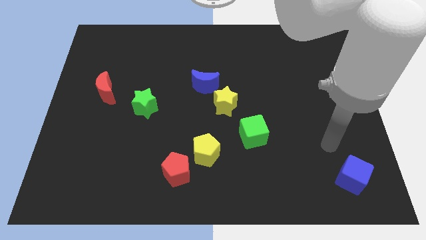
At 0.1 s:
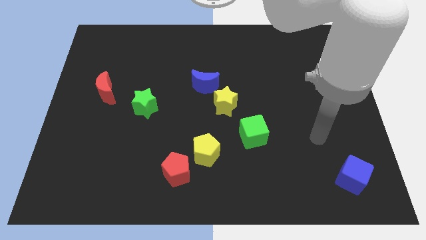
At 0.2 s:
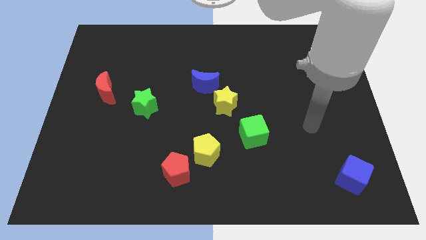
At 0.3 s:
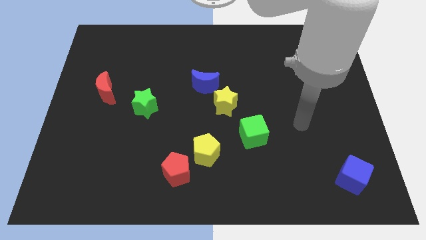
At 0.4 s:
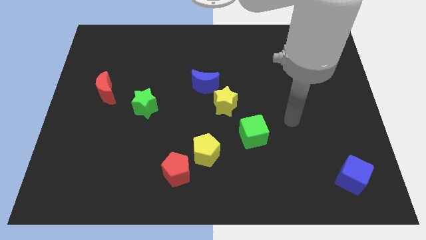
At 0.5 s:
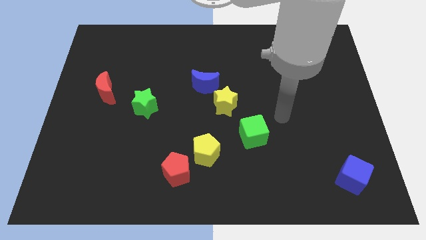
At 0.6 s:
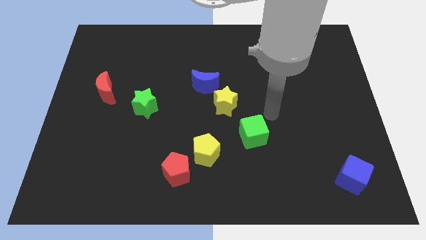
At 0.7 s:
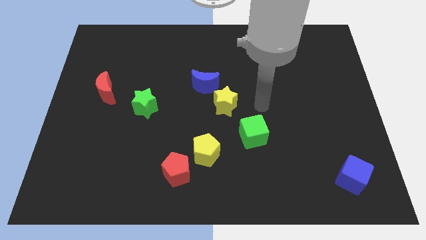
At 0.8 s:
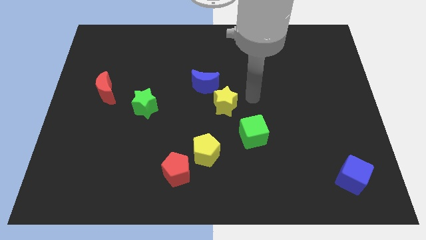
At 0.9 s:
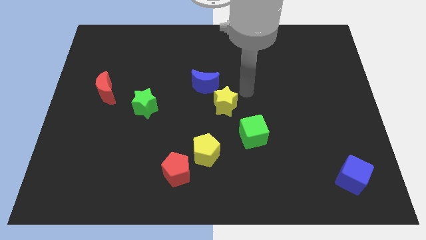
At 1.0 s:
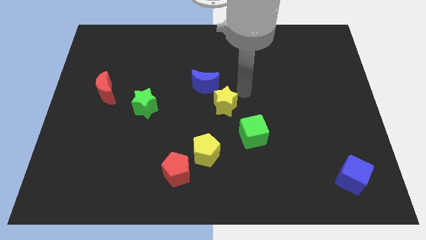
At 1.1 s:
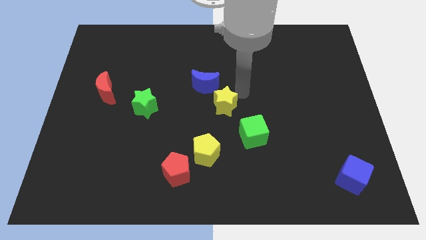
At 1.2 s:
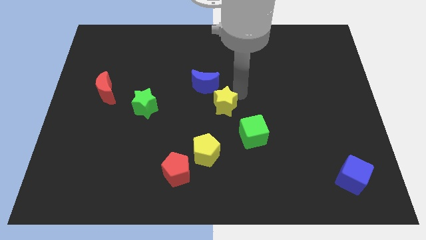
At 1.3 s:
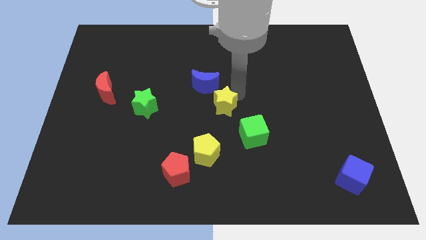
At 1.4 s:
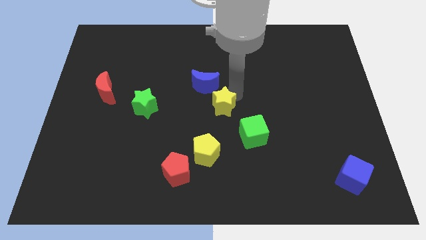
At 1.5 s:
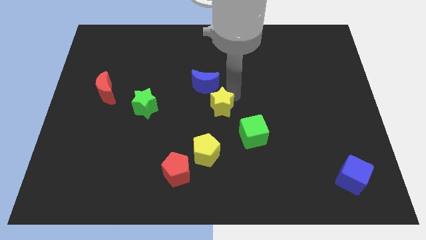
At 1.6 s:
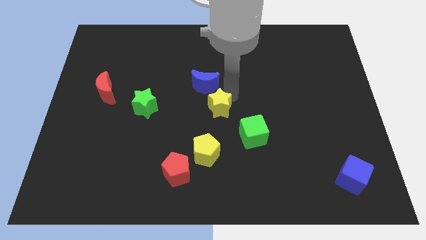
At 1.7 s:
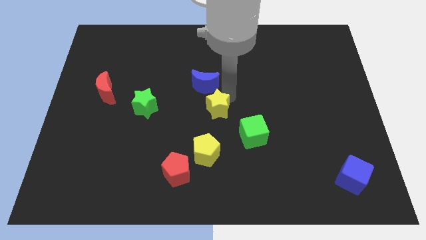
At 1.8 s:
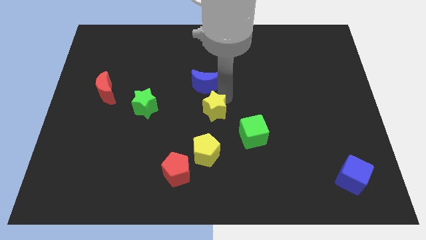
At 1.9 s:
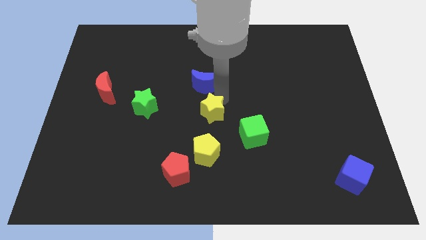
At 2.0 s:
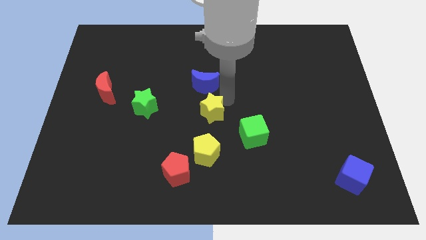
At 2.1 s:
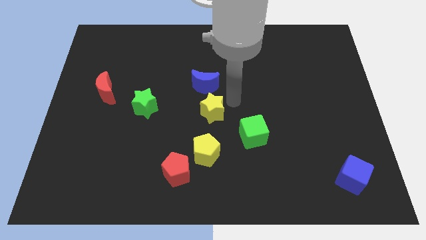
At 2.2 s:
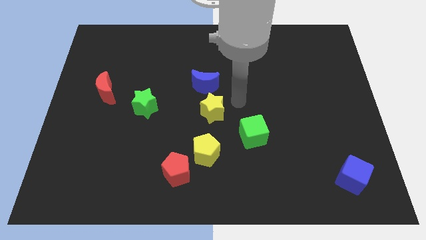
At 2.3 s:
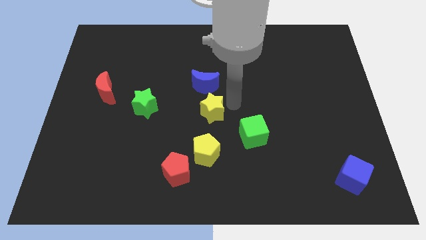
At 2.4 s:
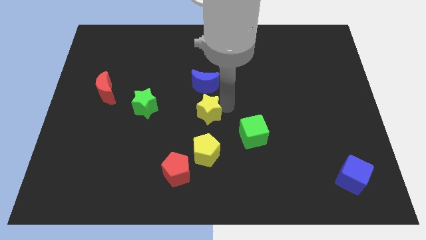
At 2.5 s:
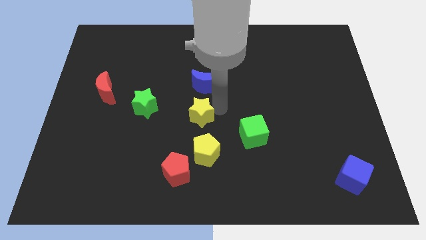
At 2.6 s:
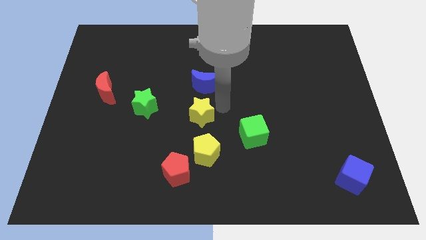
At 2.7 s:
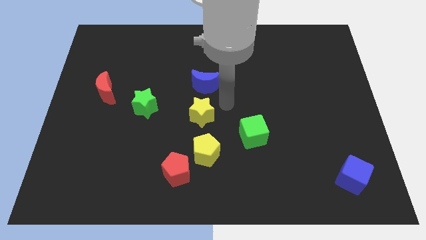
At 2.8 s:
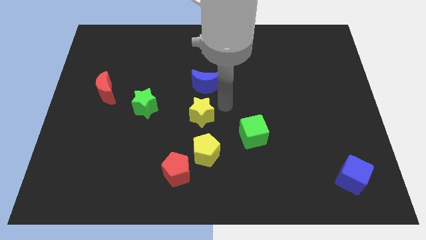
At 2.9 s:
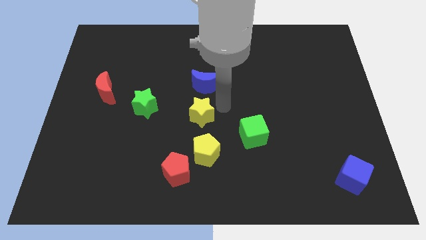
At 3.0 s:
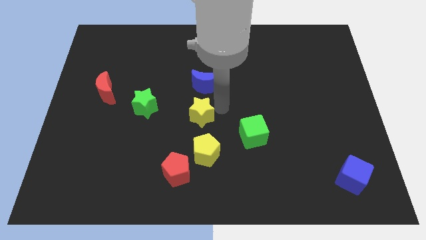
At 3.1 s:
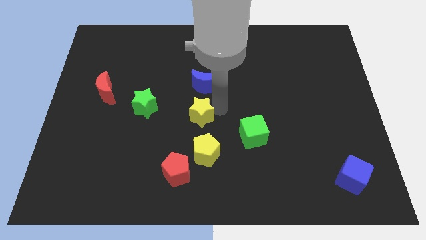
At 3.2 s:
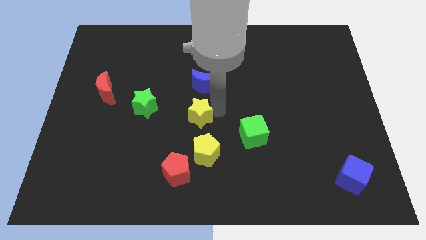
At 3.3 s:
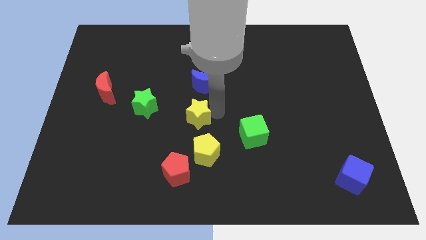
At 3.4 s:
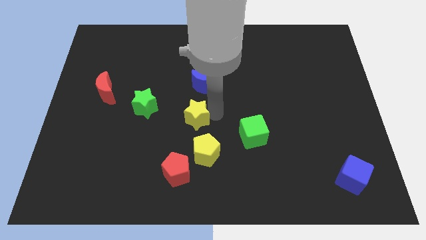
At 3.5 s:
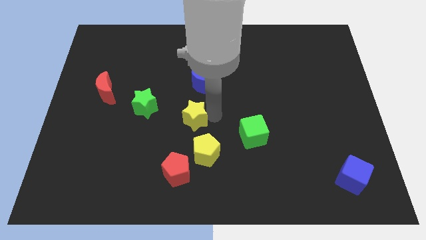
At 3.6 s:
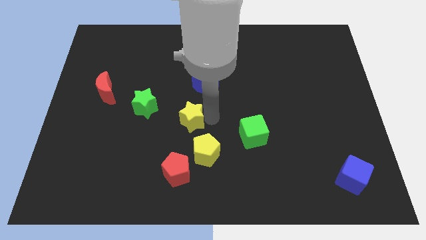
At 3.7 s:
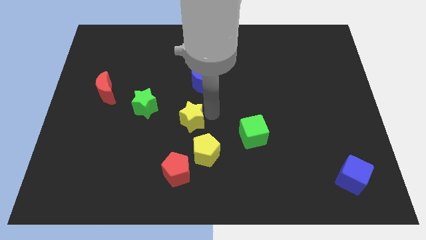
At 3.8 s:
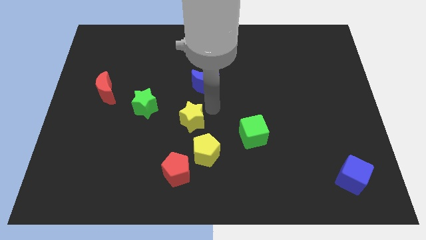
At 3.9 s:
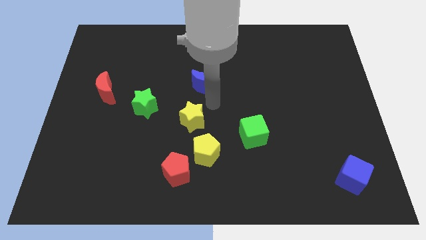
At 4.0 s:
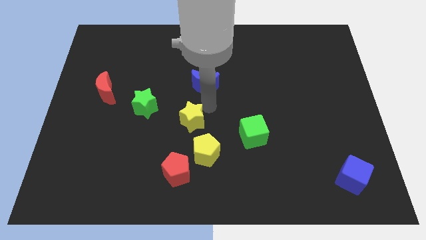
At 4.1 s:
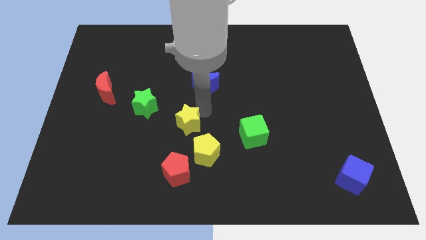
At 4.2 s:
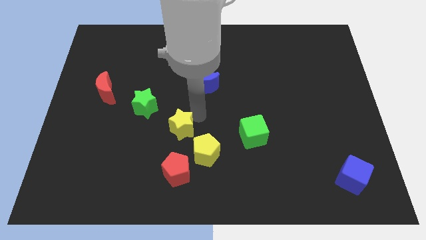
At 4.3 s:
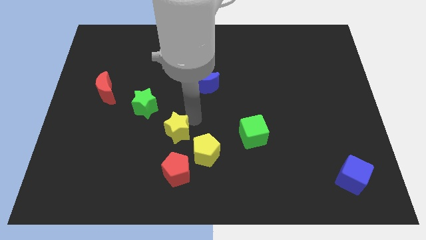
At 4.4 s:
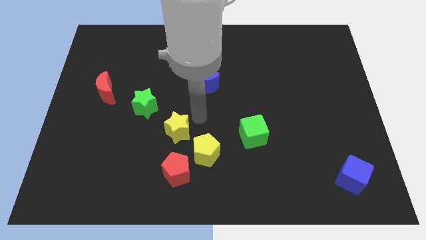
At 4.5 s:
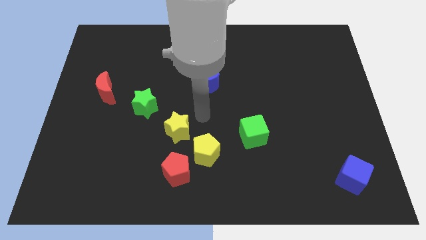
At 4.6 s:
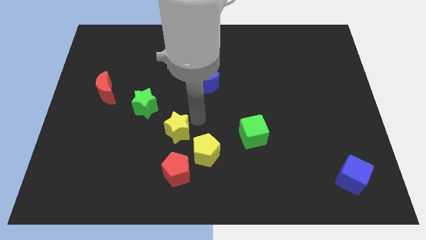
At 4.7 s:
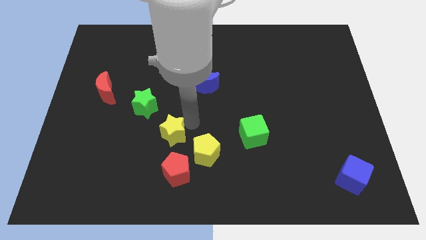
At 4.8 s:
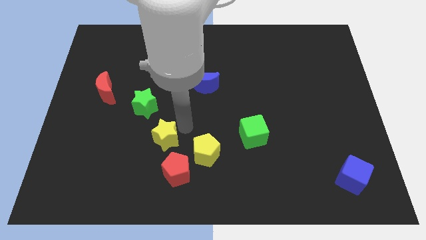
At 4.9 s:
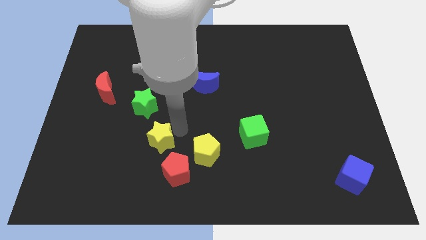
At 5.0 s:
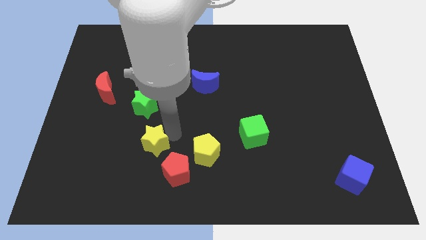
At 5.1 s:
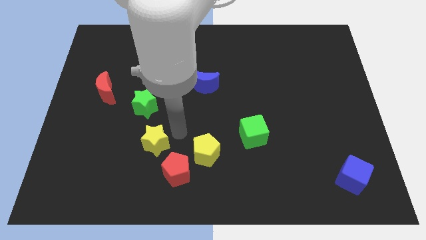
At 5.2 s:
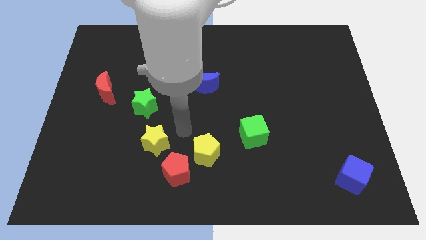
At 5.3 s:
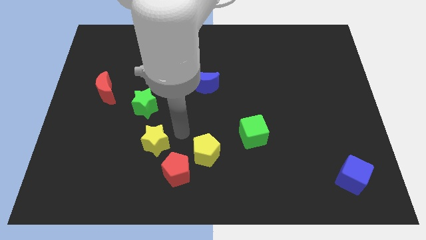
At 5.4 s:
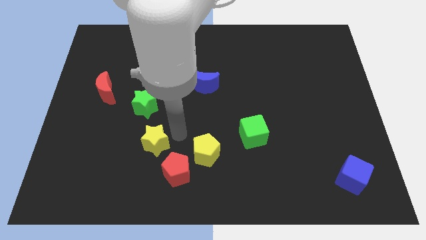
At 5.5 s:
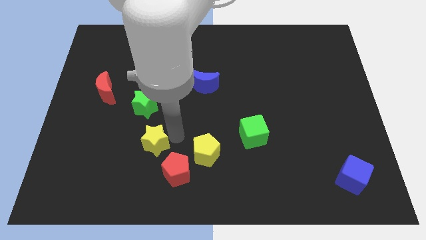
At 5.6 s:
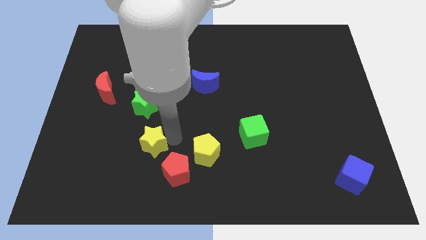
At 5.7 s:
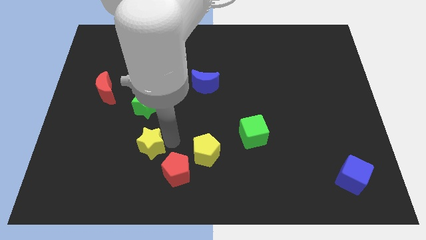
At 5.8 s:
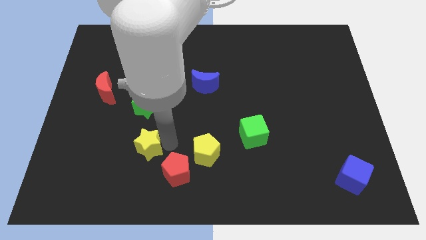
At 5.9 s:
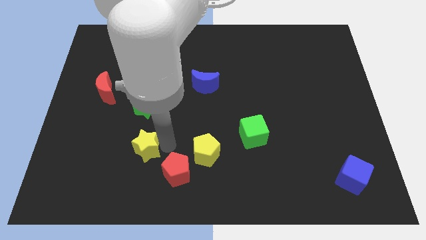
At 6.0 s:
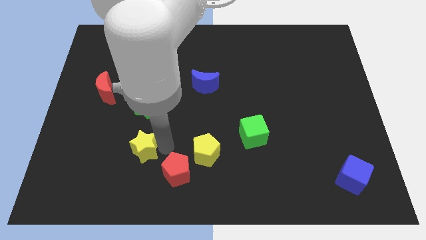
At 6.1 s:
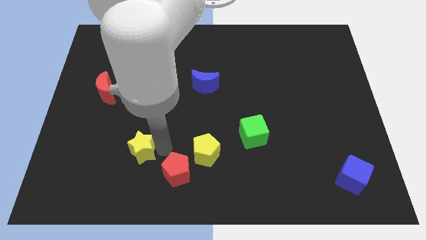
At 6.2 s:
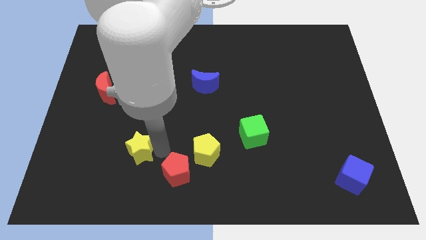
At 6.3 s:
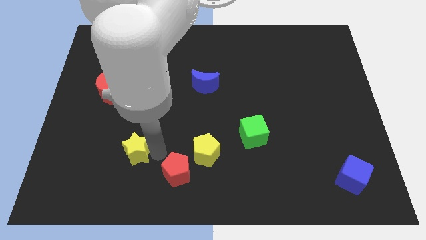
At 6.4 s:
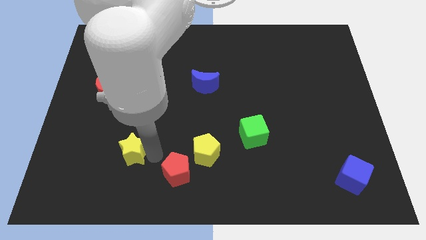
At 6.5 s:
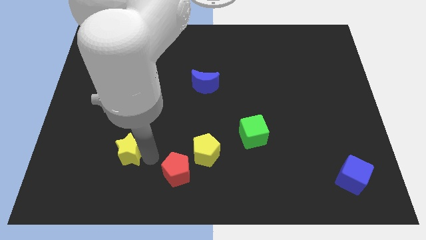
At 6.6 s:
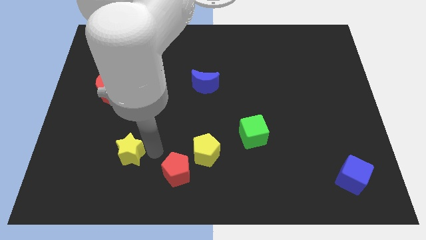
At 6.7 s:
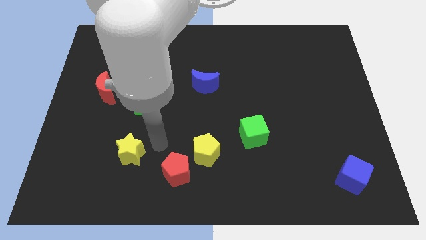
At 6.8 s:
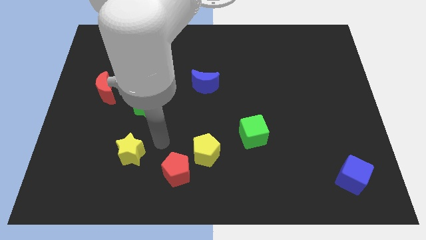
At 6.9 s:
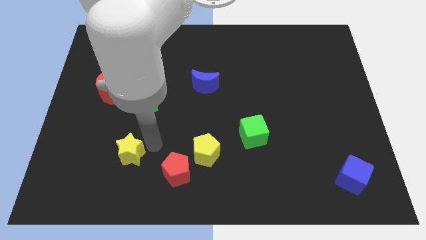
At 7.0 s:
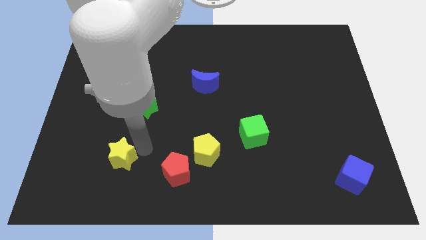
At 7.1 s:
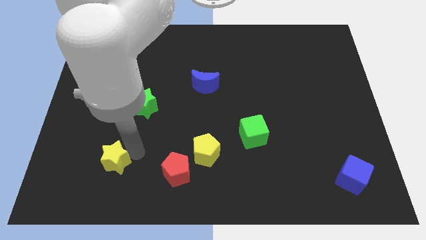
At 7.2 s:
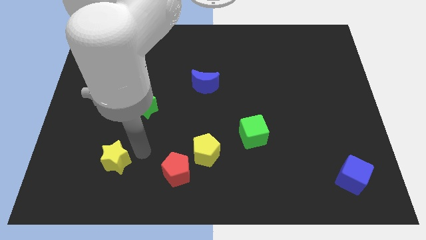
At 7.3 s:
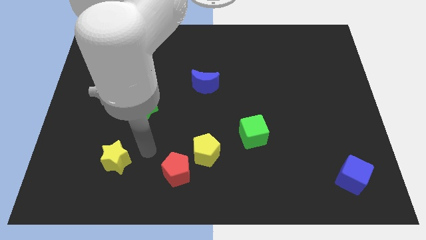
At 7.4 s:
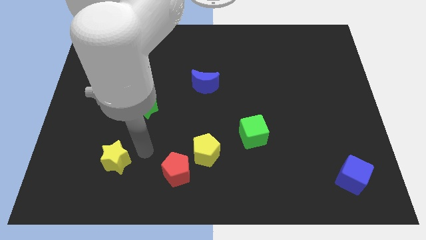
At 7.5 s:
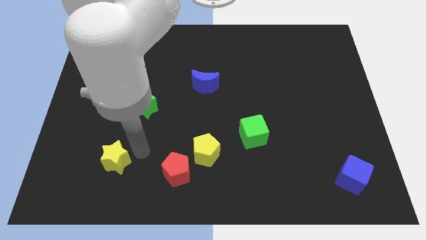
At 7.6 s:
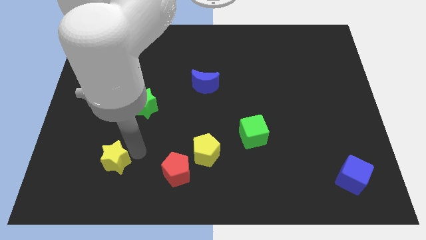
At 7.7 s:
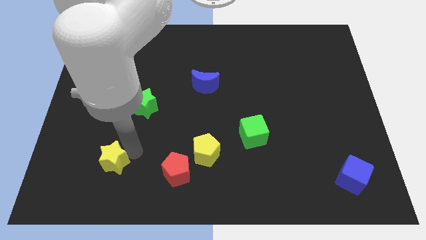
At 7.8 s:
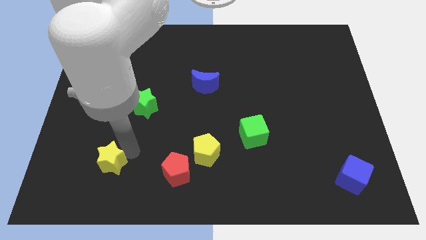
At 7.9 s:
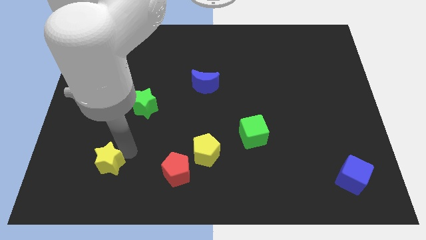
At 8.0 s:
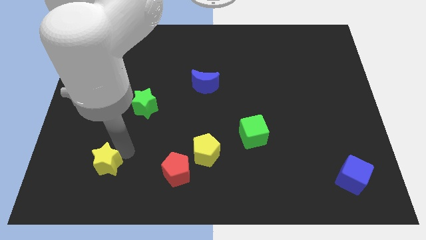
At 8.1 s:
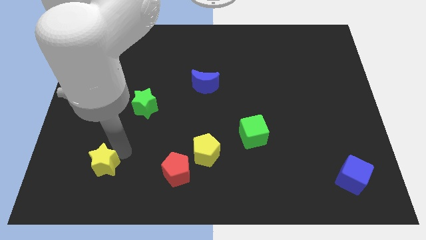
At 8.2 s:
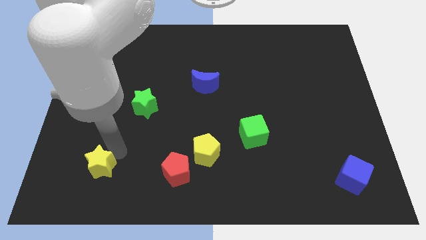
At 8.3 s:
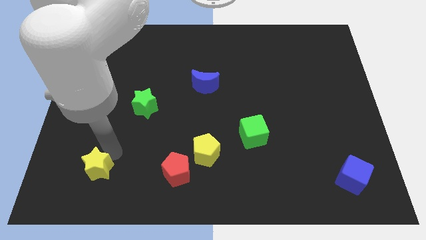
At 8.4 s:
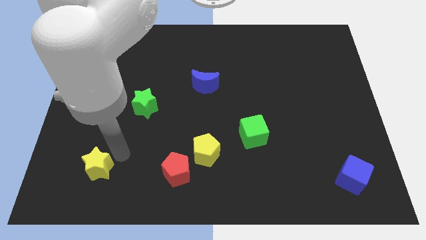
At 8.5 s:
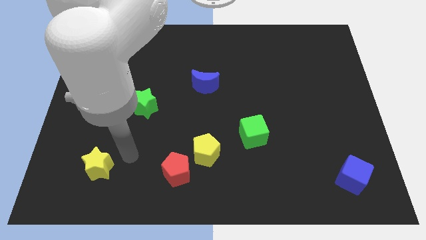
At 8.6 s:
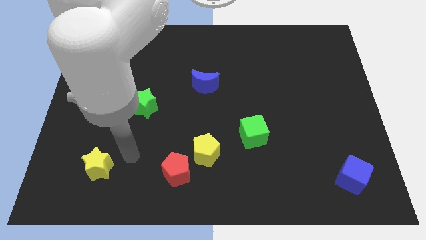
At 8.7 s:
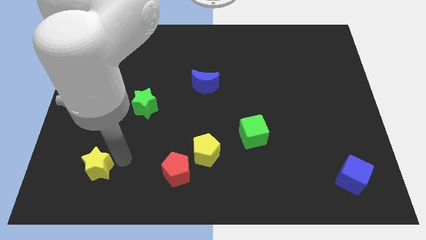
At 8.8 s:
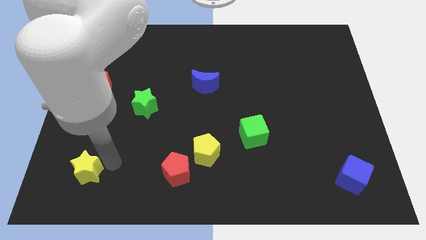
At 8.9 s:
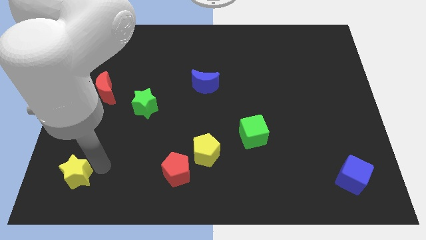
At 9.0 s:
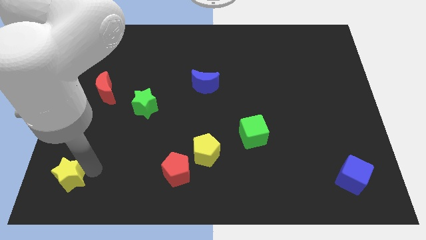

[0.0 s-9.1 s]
push the yellow star to the lower left corner
